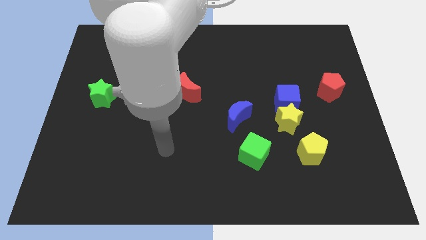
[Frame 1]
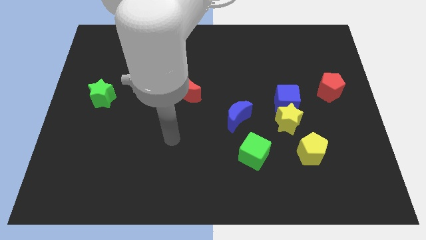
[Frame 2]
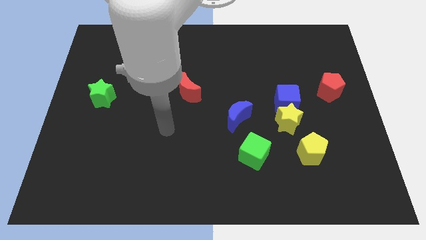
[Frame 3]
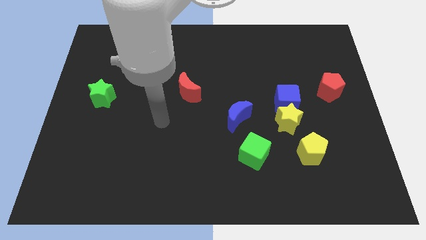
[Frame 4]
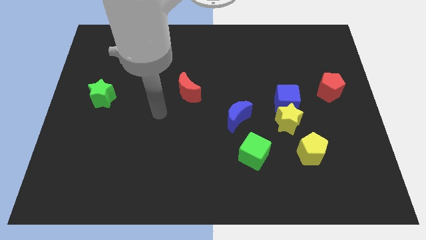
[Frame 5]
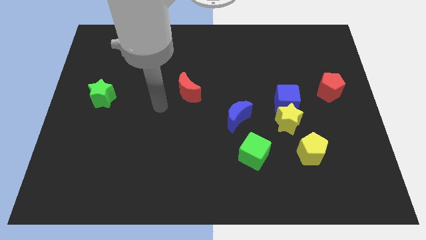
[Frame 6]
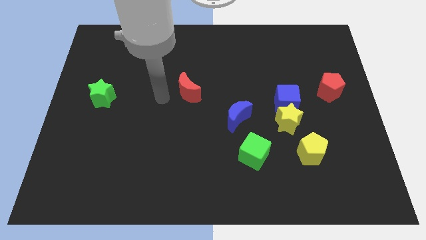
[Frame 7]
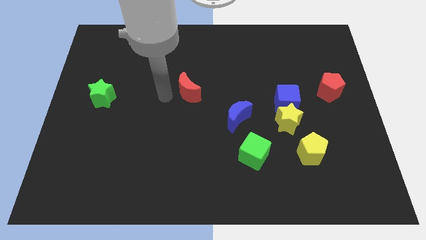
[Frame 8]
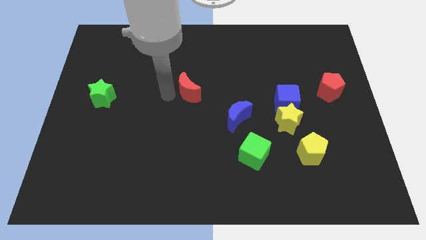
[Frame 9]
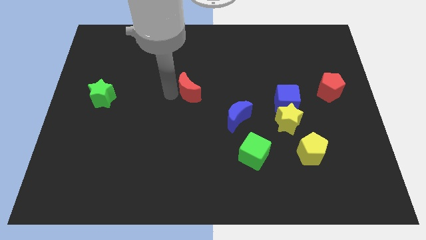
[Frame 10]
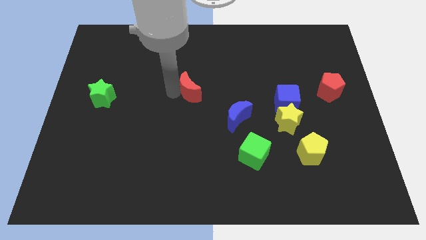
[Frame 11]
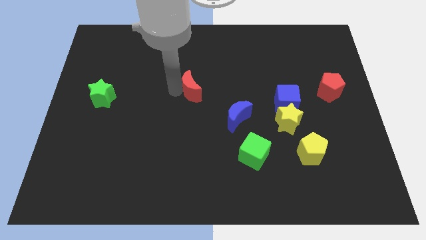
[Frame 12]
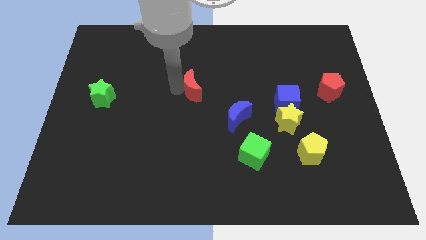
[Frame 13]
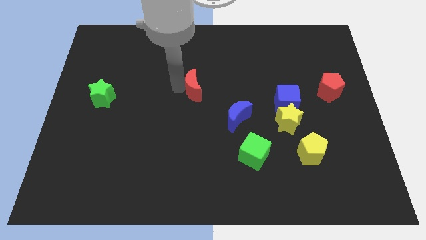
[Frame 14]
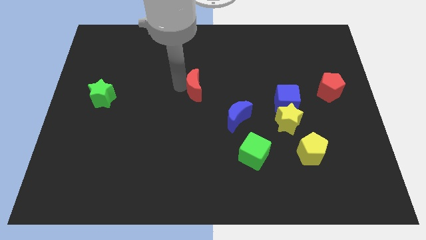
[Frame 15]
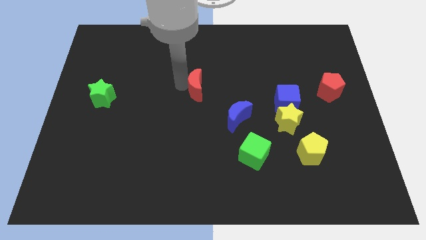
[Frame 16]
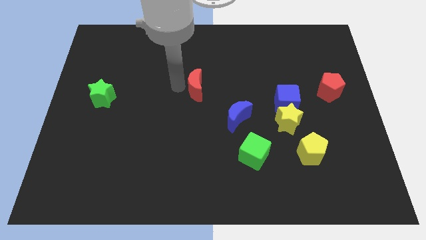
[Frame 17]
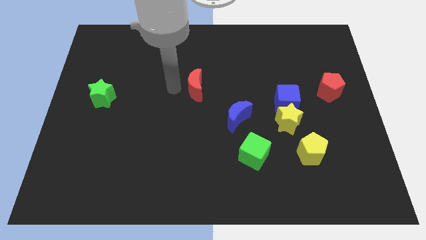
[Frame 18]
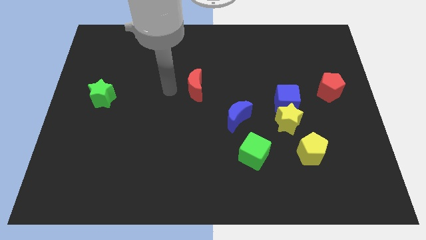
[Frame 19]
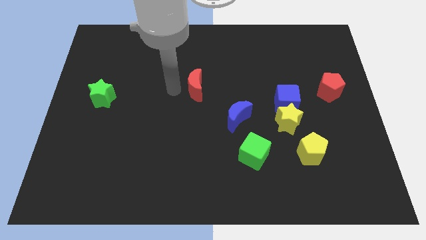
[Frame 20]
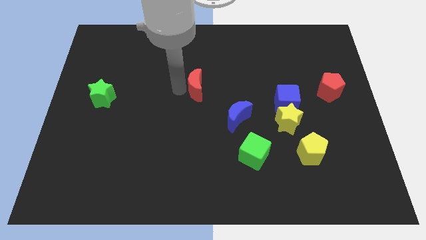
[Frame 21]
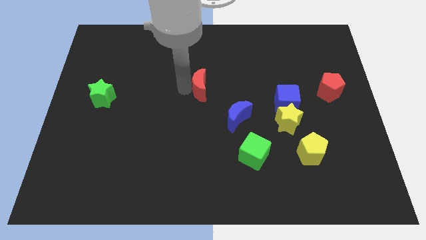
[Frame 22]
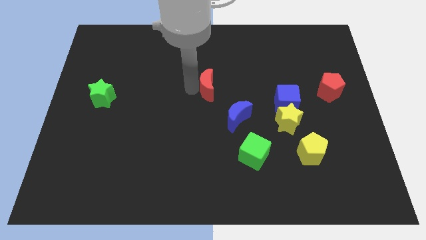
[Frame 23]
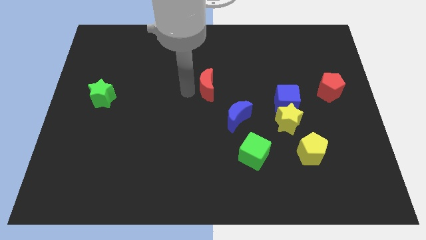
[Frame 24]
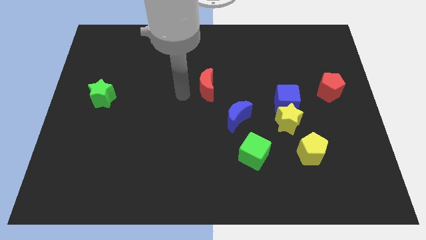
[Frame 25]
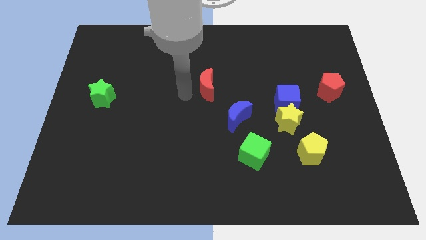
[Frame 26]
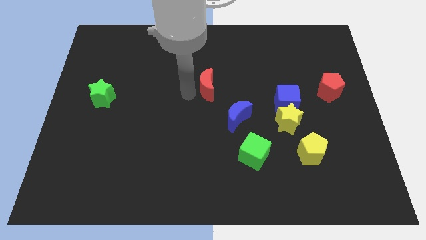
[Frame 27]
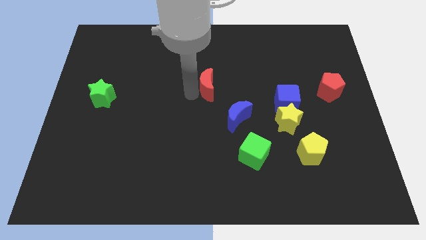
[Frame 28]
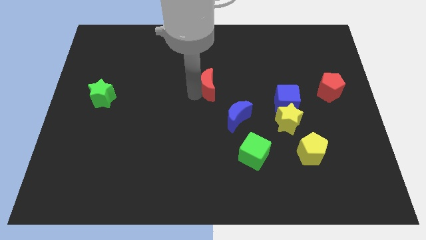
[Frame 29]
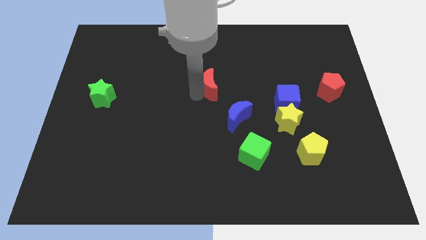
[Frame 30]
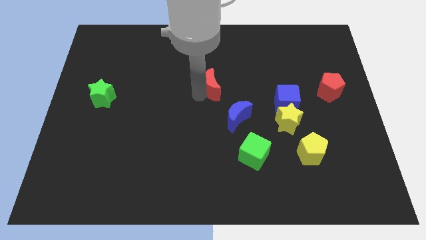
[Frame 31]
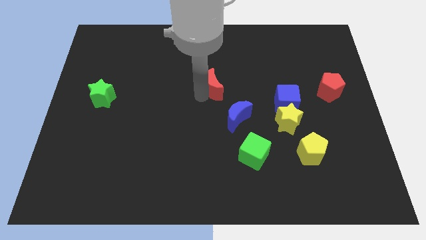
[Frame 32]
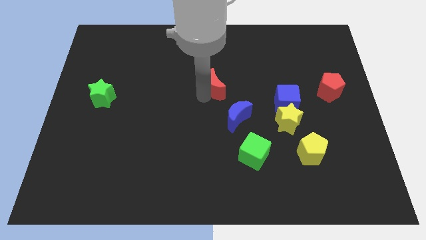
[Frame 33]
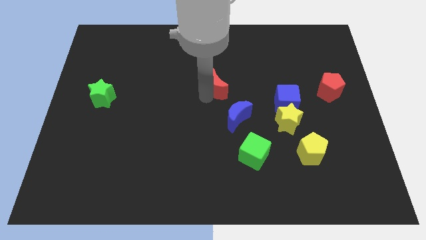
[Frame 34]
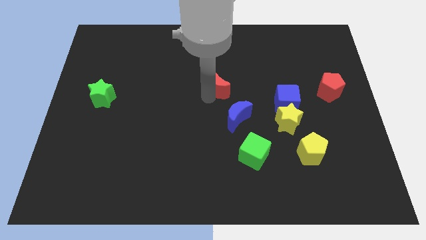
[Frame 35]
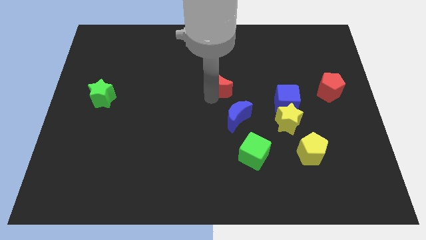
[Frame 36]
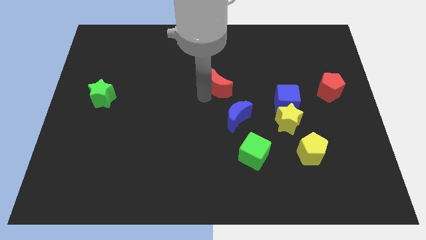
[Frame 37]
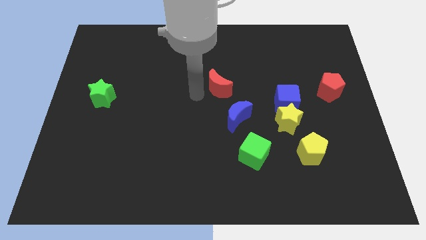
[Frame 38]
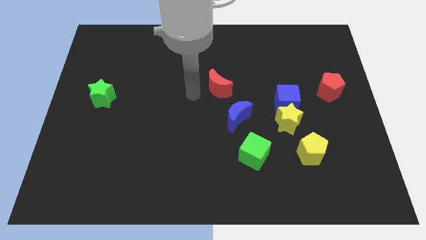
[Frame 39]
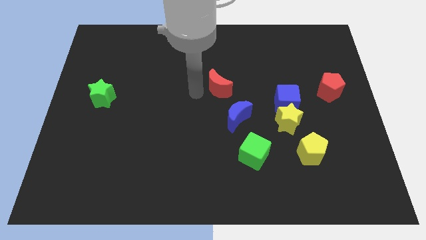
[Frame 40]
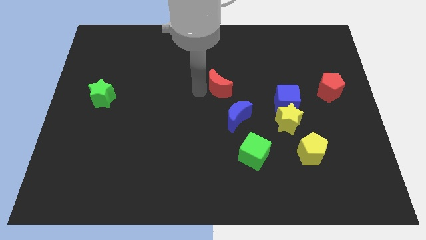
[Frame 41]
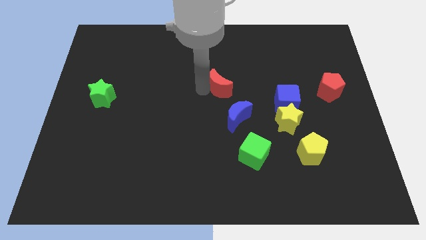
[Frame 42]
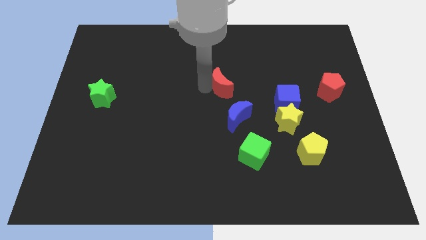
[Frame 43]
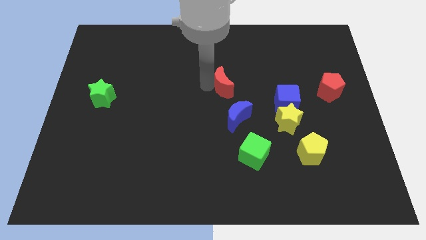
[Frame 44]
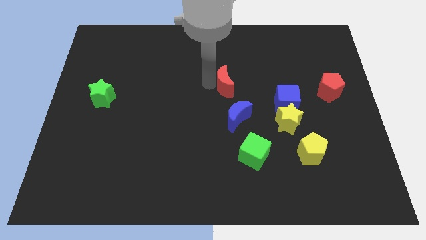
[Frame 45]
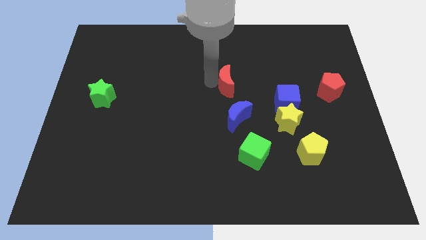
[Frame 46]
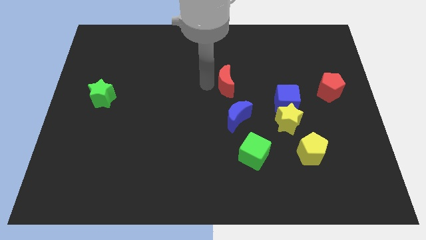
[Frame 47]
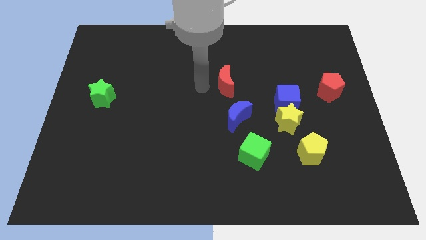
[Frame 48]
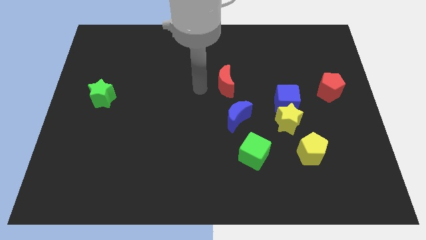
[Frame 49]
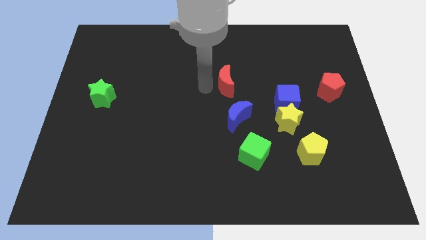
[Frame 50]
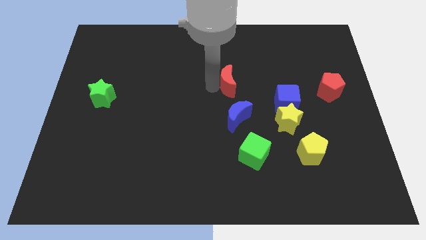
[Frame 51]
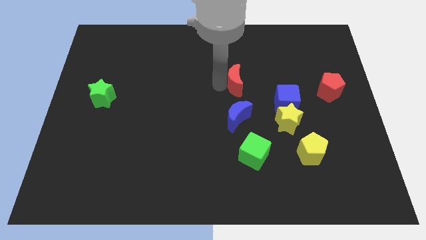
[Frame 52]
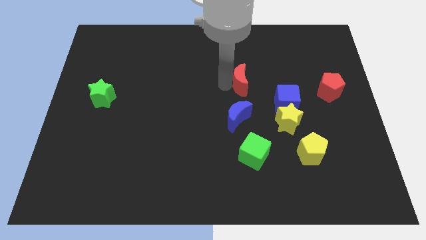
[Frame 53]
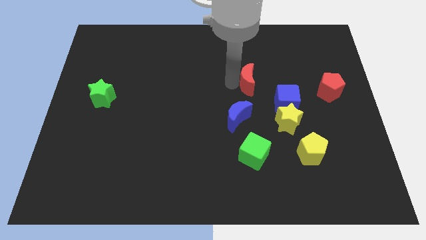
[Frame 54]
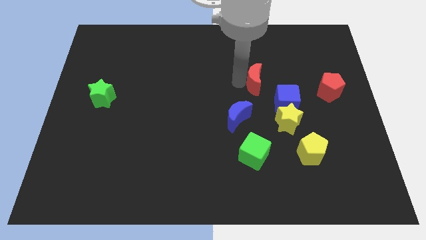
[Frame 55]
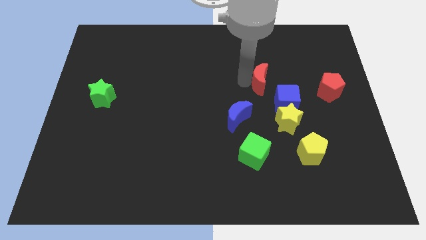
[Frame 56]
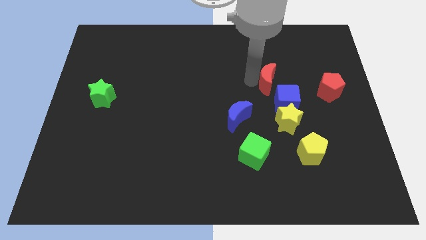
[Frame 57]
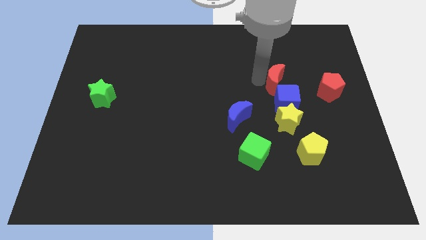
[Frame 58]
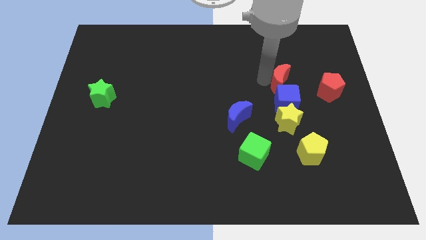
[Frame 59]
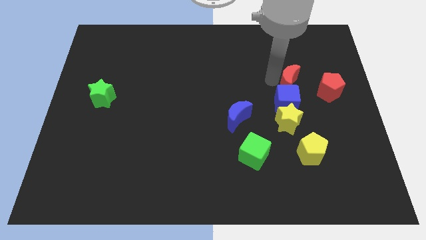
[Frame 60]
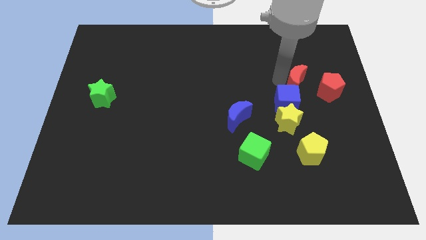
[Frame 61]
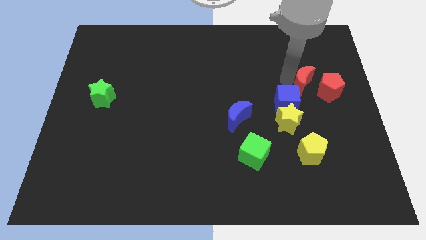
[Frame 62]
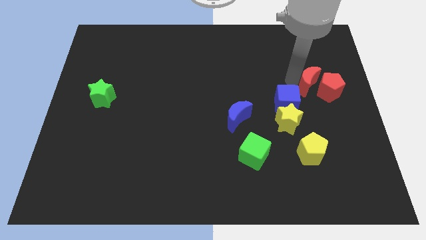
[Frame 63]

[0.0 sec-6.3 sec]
slide the red moon towards the red pentagon

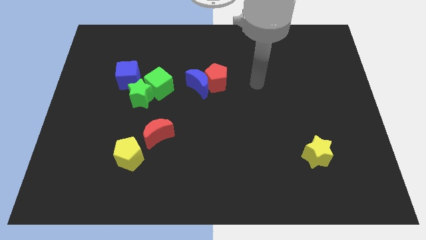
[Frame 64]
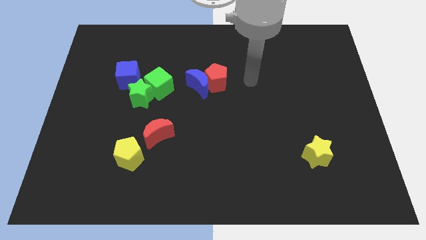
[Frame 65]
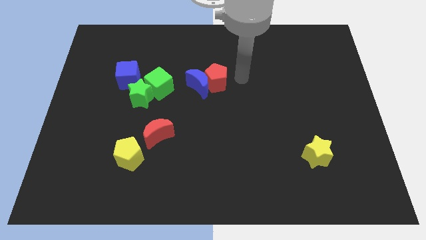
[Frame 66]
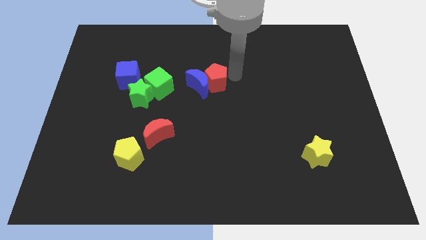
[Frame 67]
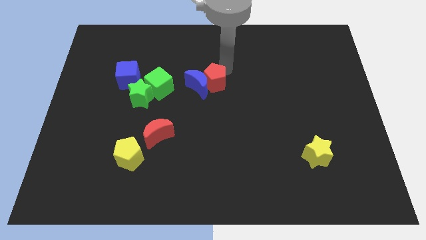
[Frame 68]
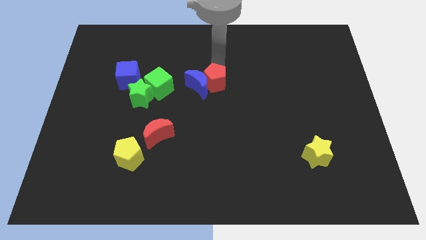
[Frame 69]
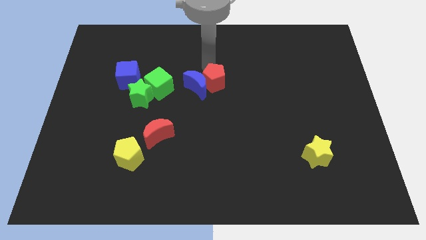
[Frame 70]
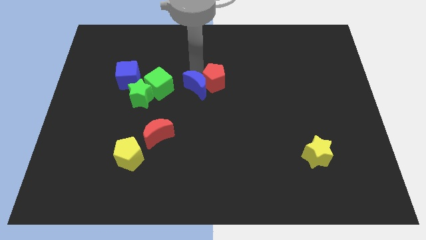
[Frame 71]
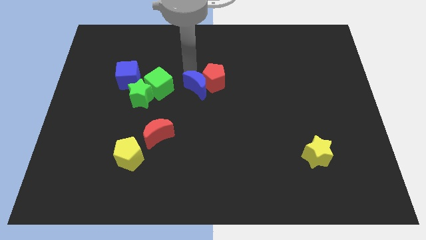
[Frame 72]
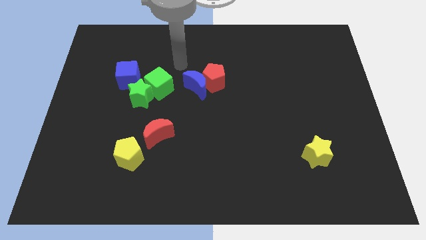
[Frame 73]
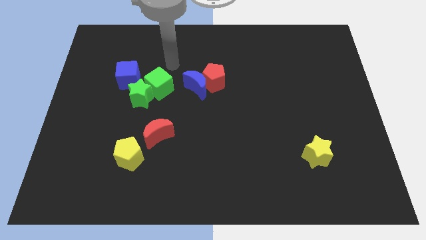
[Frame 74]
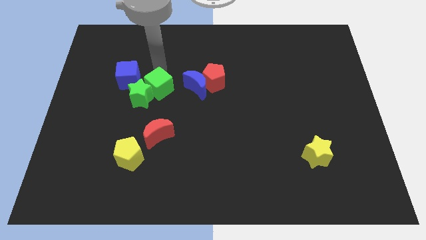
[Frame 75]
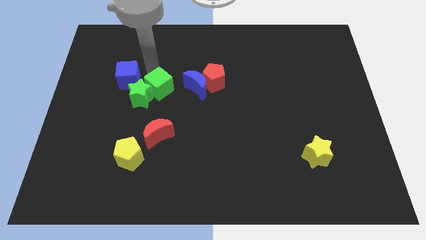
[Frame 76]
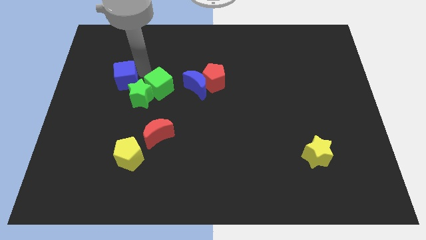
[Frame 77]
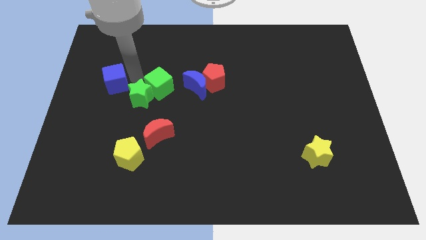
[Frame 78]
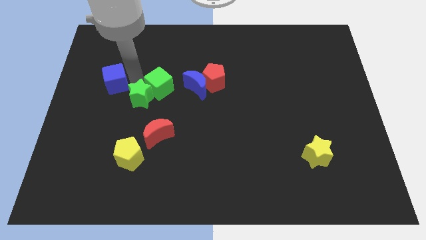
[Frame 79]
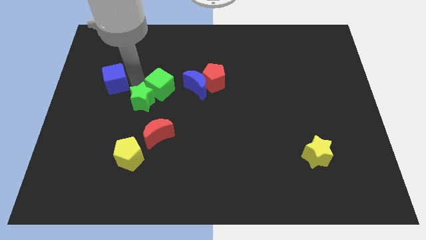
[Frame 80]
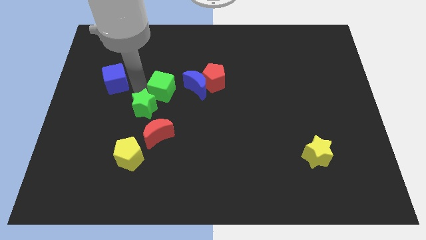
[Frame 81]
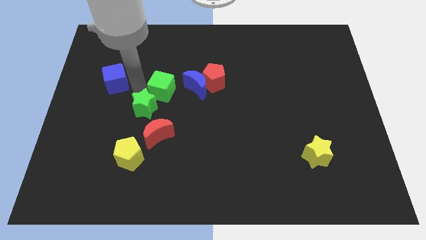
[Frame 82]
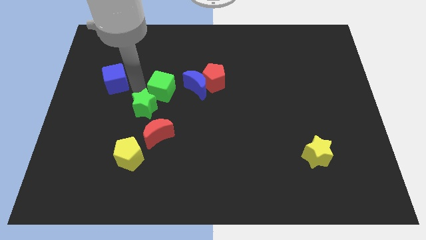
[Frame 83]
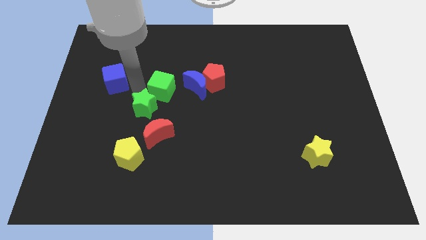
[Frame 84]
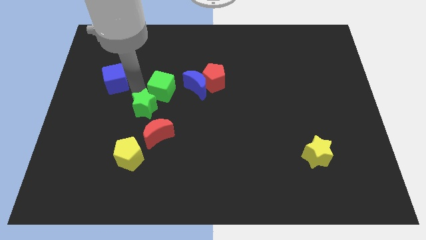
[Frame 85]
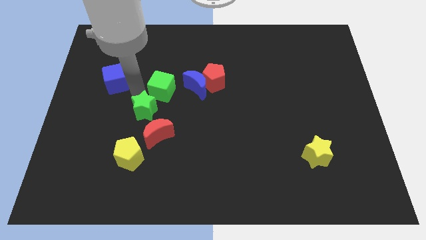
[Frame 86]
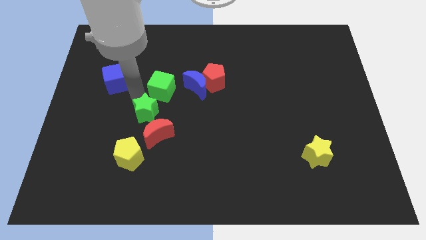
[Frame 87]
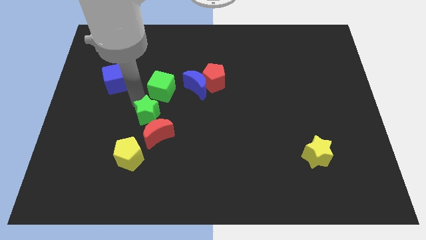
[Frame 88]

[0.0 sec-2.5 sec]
push the green star towards the red moon
